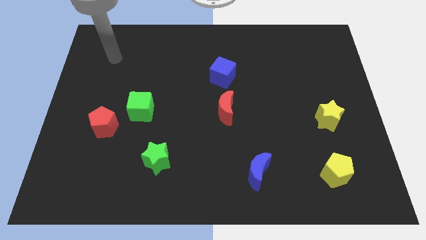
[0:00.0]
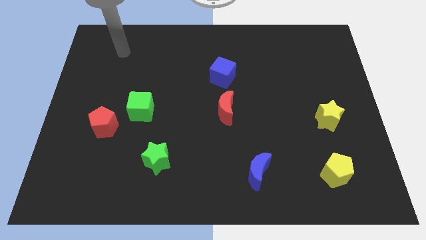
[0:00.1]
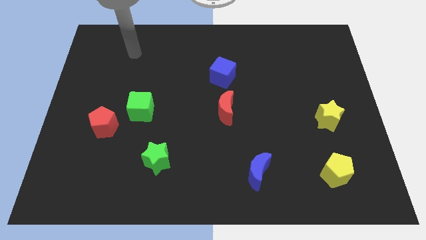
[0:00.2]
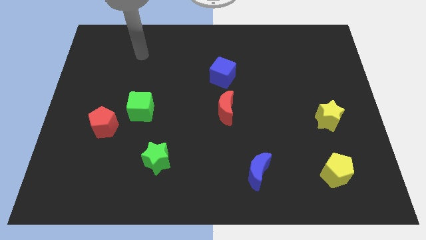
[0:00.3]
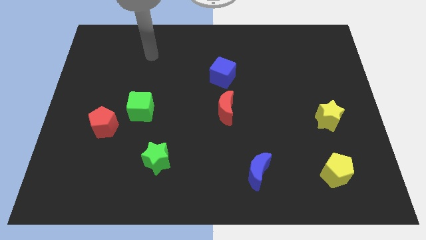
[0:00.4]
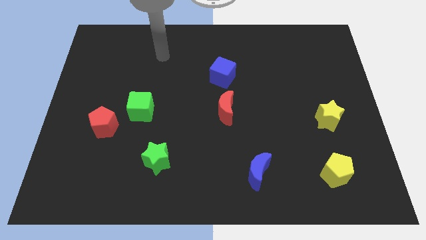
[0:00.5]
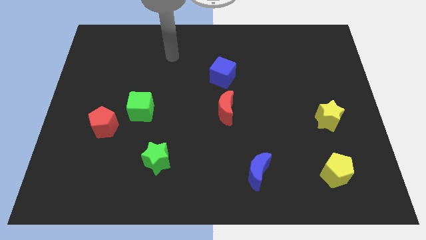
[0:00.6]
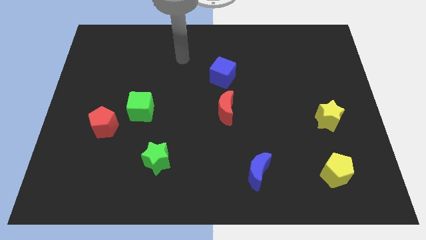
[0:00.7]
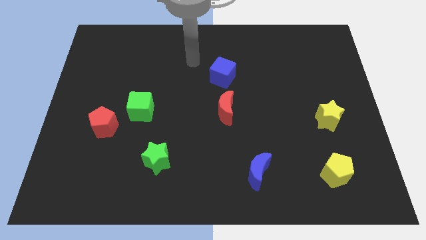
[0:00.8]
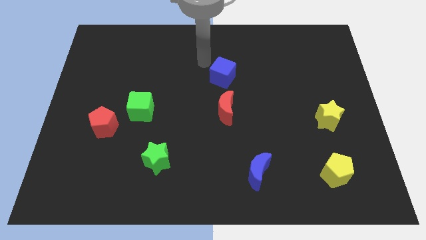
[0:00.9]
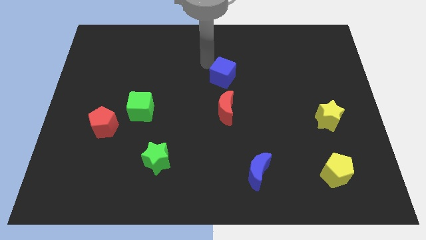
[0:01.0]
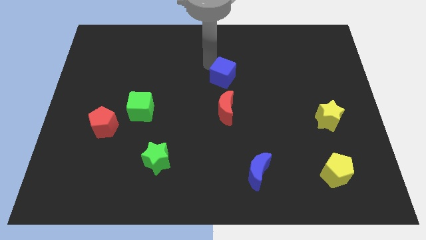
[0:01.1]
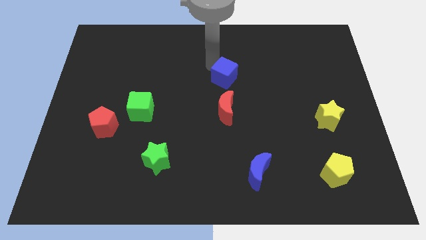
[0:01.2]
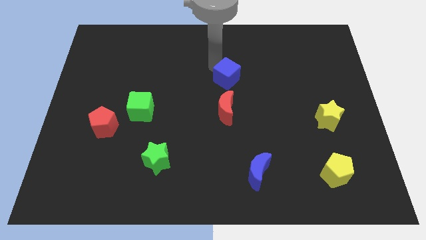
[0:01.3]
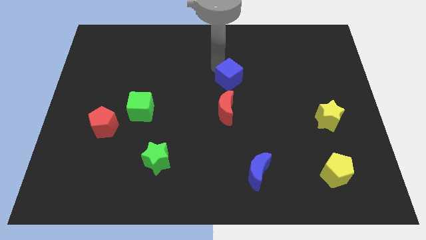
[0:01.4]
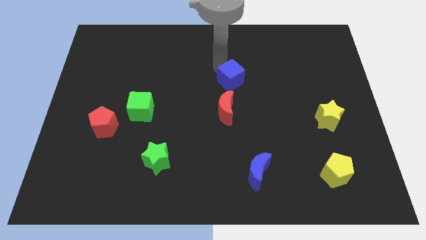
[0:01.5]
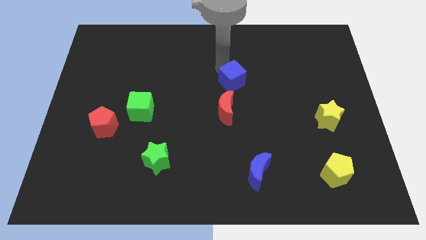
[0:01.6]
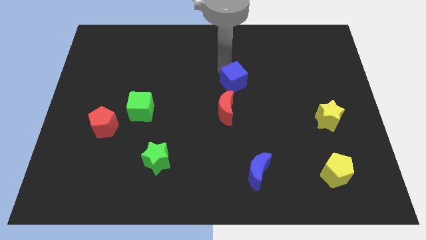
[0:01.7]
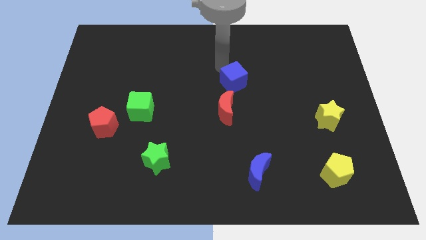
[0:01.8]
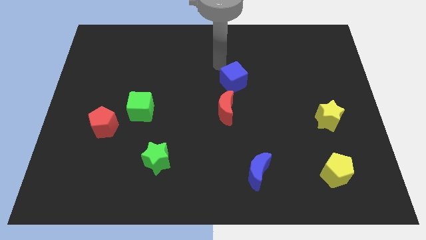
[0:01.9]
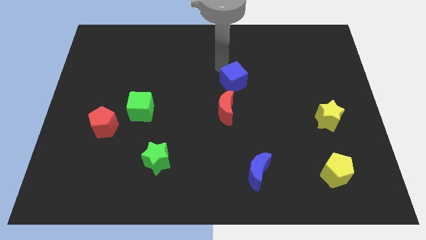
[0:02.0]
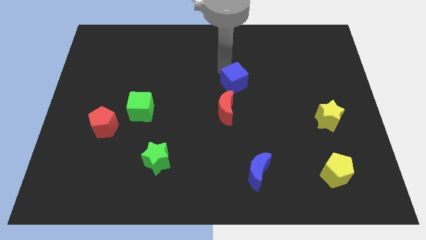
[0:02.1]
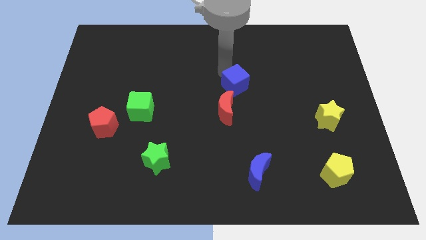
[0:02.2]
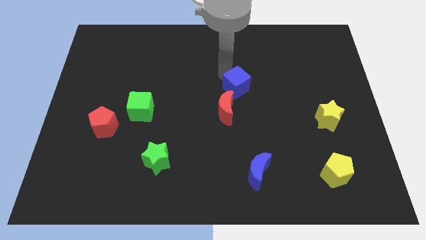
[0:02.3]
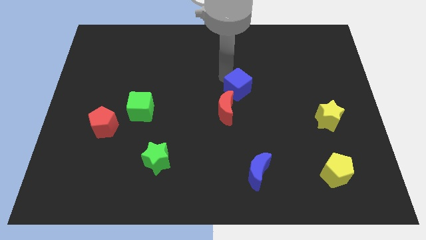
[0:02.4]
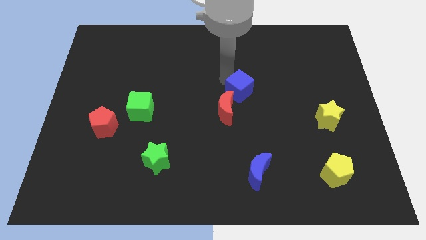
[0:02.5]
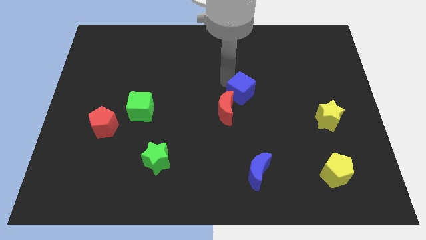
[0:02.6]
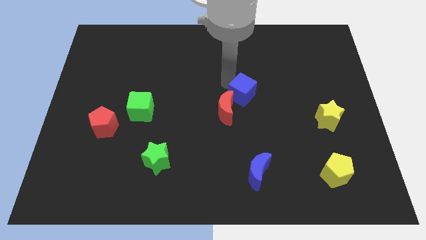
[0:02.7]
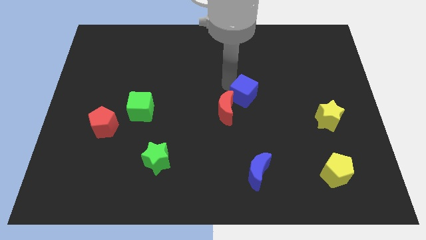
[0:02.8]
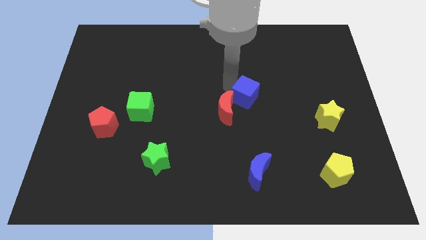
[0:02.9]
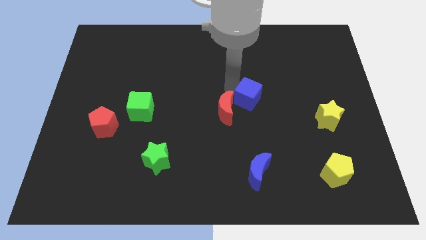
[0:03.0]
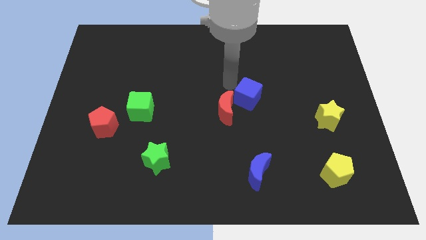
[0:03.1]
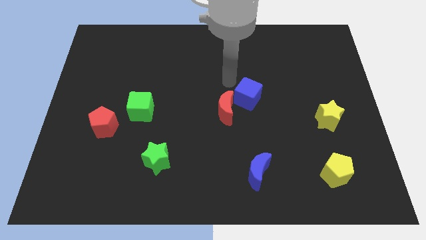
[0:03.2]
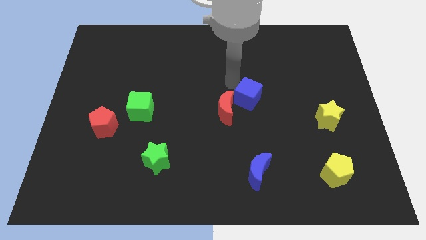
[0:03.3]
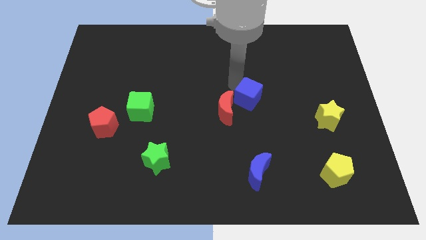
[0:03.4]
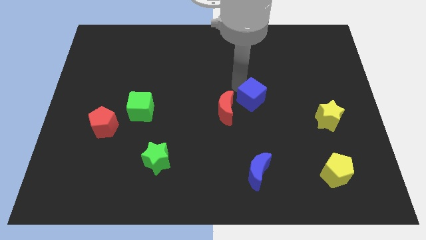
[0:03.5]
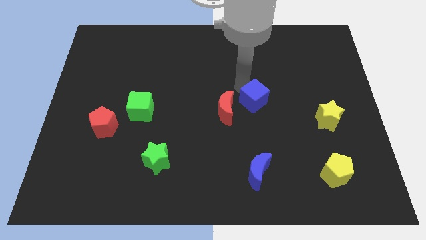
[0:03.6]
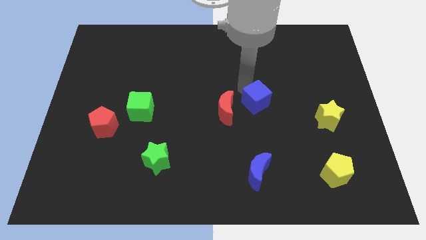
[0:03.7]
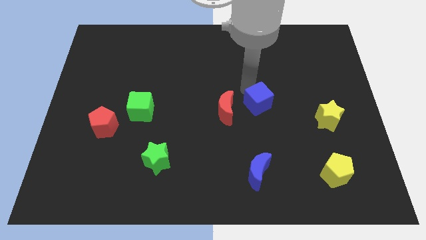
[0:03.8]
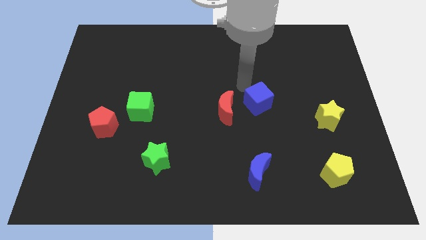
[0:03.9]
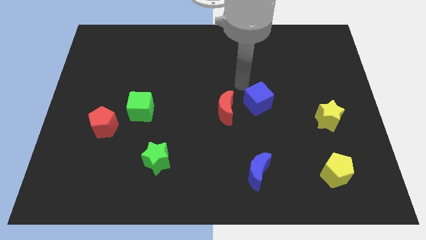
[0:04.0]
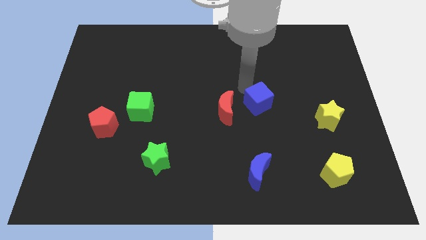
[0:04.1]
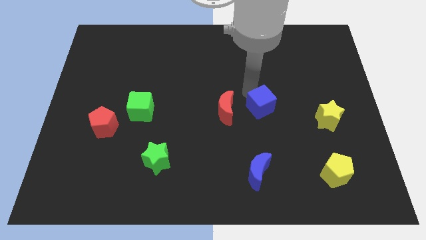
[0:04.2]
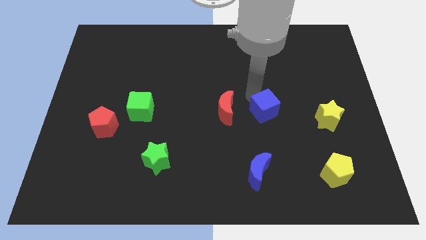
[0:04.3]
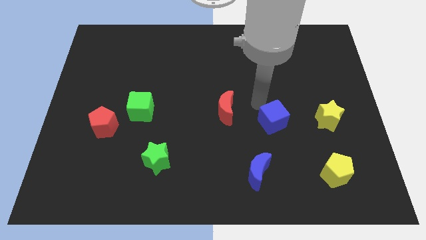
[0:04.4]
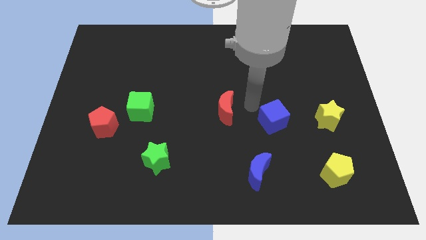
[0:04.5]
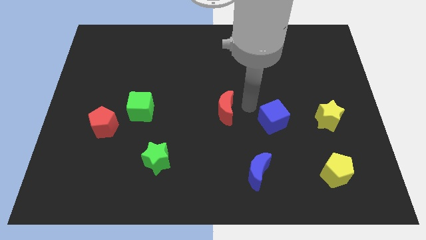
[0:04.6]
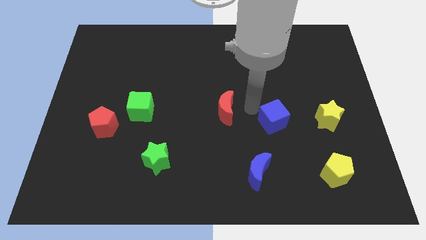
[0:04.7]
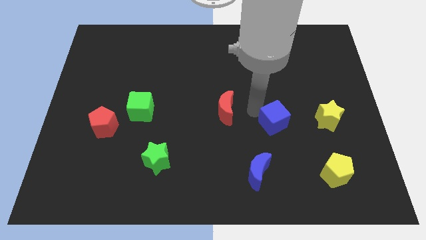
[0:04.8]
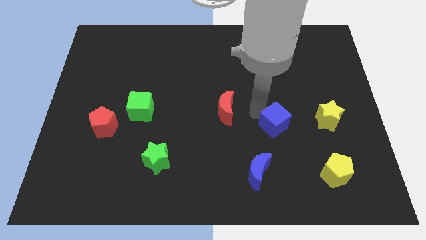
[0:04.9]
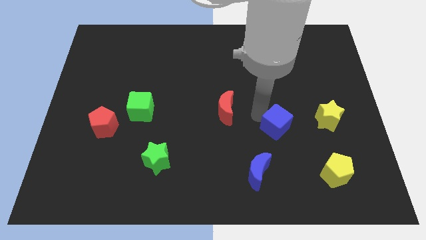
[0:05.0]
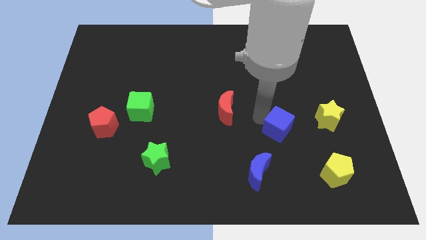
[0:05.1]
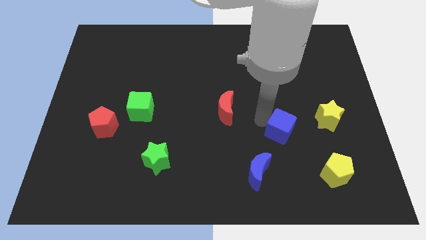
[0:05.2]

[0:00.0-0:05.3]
move the blue cube downwards and to the right diagonally

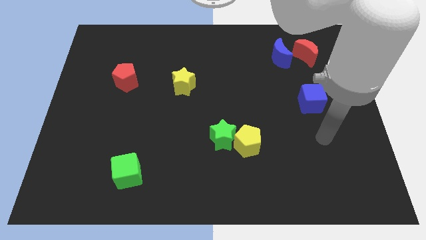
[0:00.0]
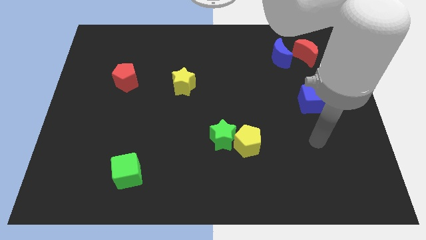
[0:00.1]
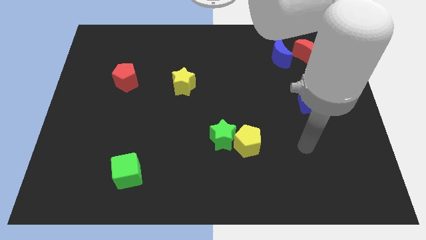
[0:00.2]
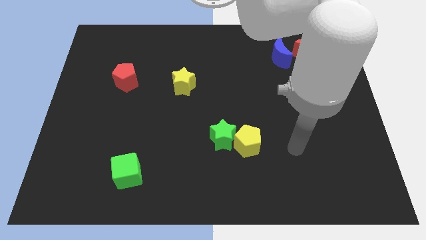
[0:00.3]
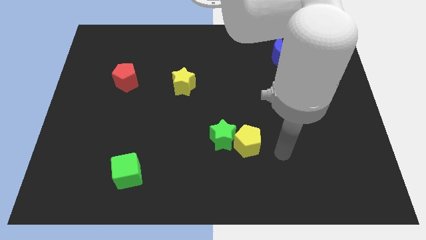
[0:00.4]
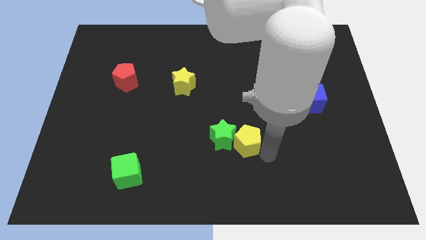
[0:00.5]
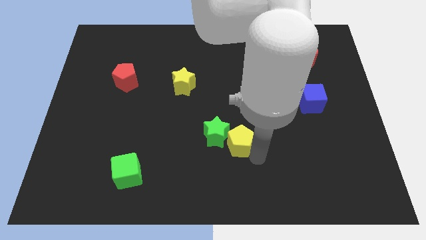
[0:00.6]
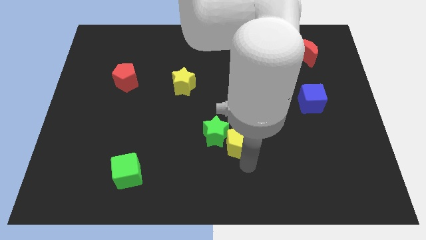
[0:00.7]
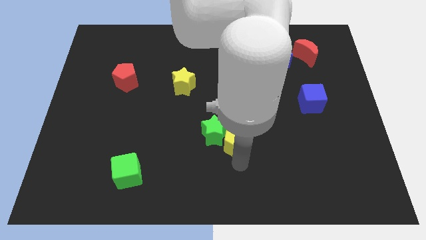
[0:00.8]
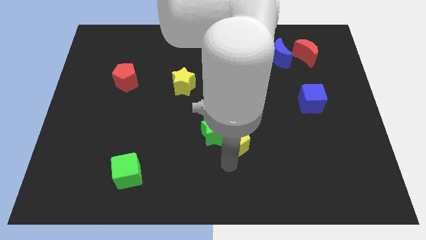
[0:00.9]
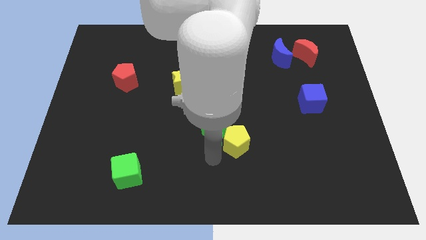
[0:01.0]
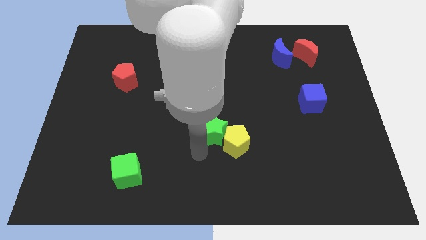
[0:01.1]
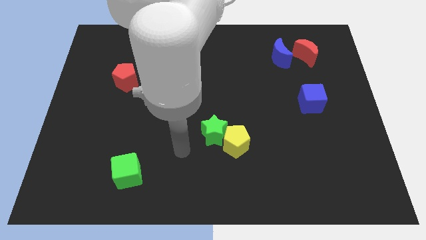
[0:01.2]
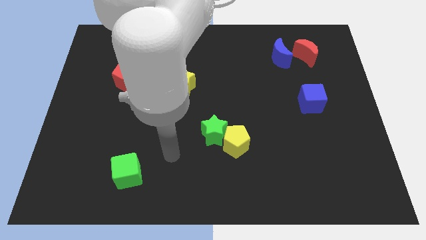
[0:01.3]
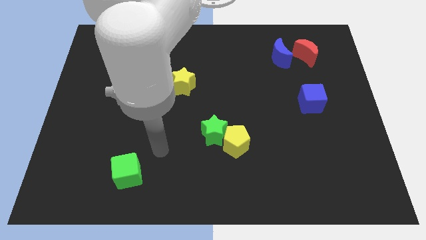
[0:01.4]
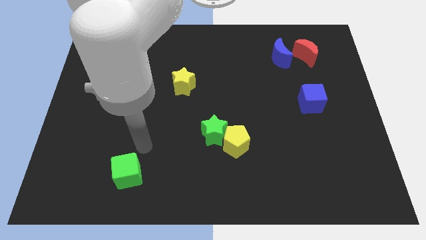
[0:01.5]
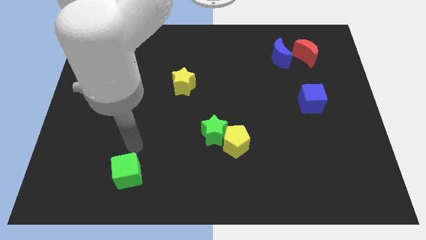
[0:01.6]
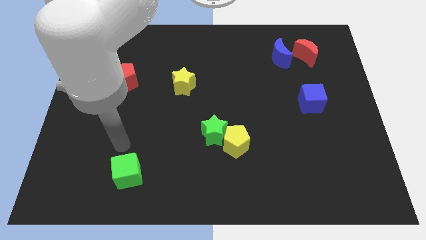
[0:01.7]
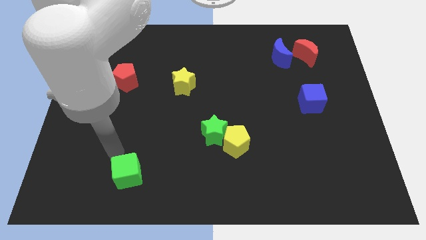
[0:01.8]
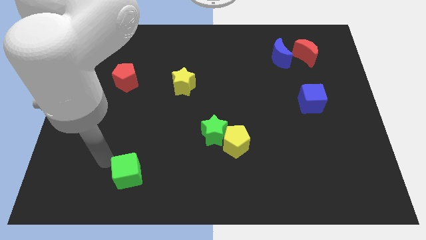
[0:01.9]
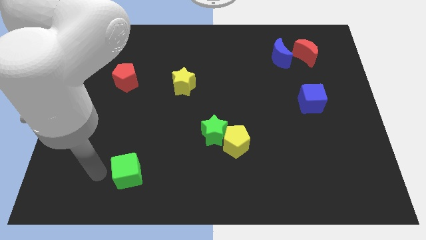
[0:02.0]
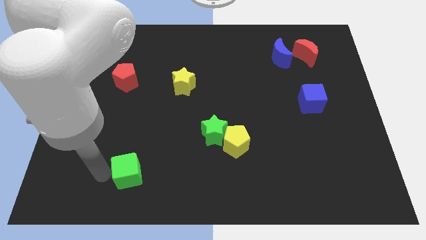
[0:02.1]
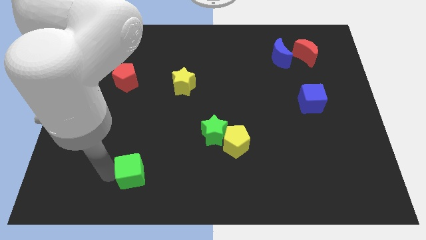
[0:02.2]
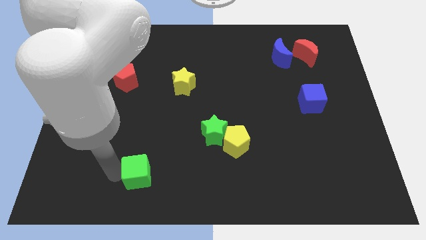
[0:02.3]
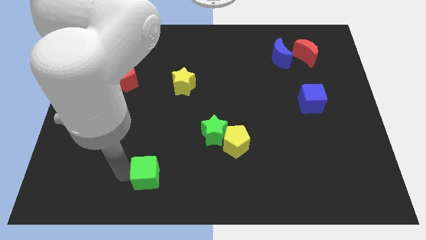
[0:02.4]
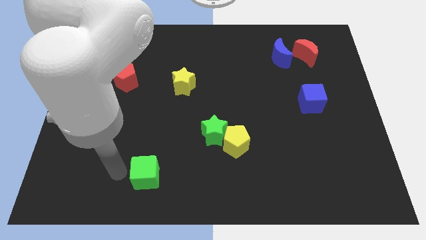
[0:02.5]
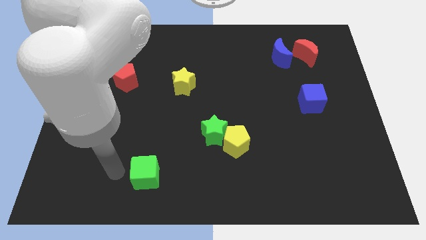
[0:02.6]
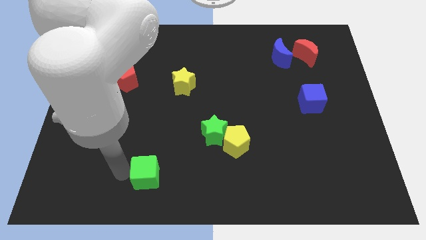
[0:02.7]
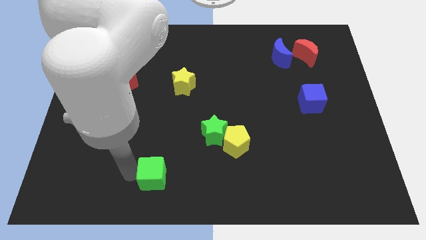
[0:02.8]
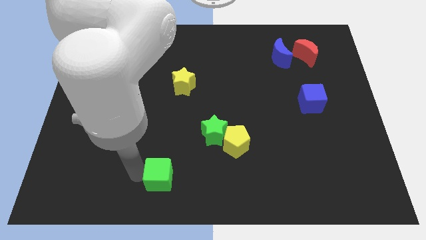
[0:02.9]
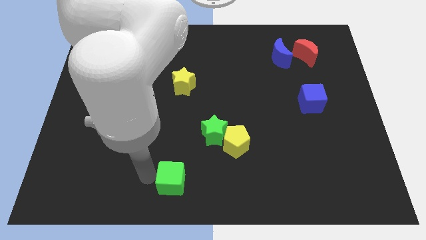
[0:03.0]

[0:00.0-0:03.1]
slide the green cube slightly to the right
